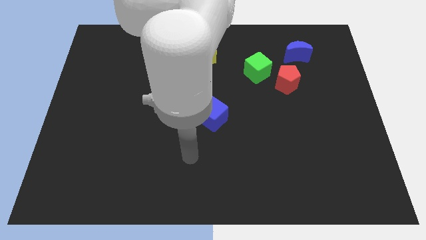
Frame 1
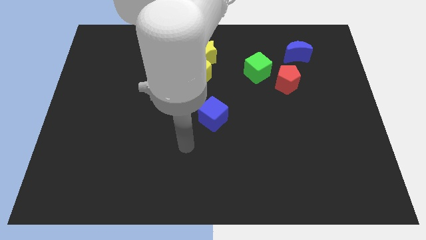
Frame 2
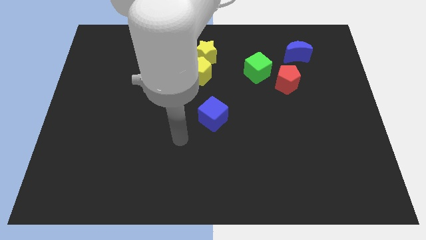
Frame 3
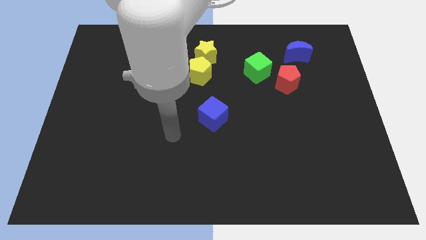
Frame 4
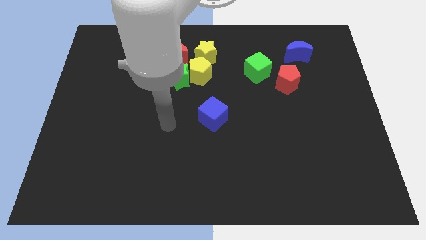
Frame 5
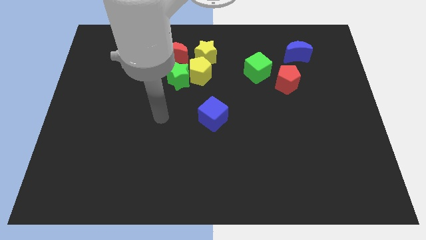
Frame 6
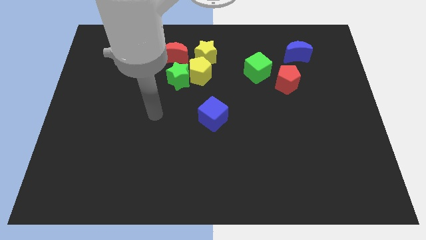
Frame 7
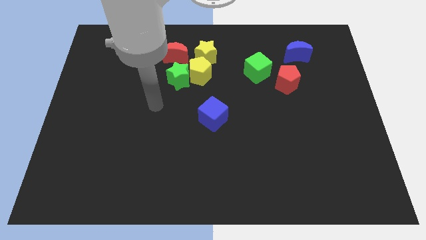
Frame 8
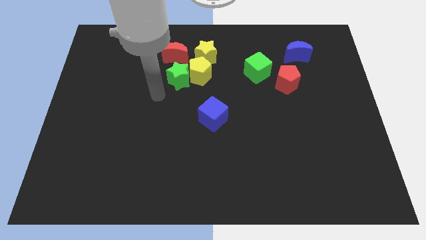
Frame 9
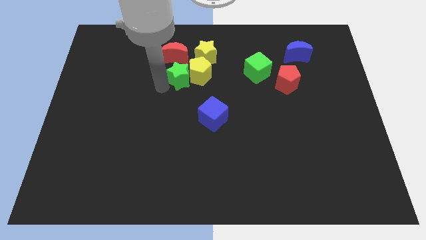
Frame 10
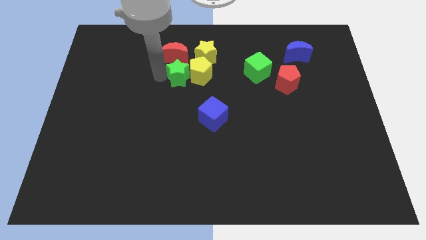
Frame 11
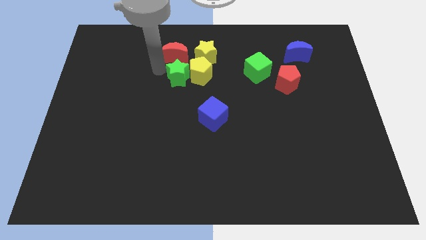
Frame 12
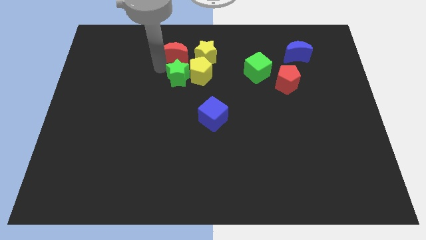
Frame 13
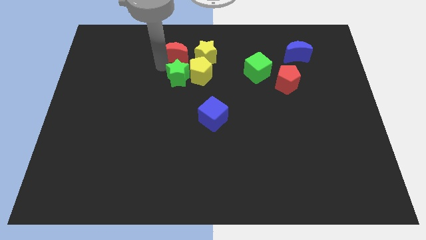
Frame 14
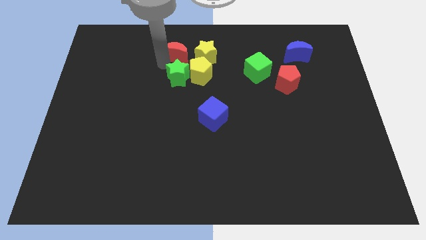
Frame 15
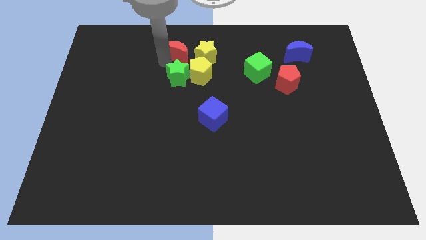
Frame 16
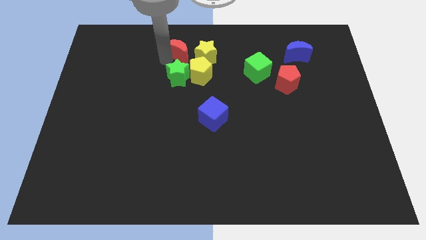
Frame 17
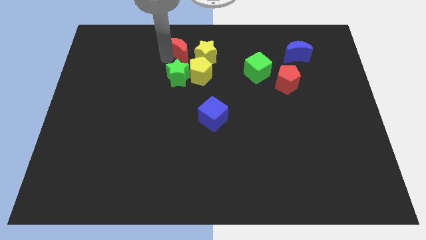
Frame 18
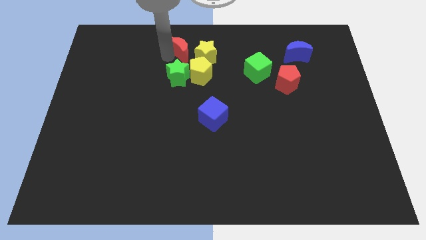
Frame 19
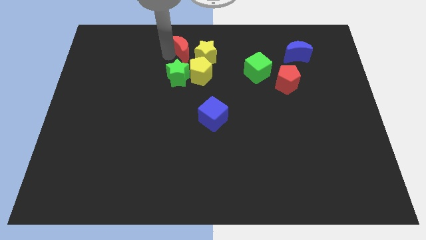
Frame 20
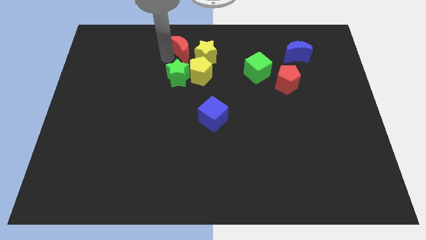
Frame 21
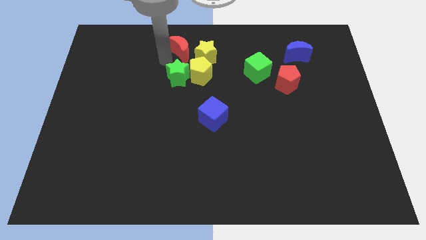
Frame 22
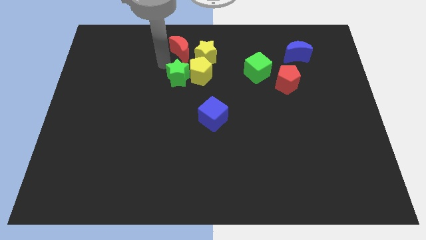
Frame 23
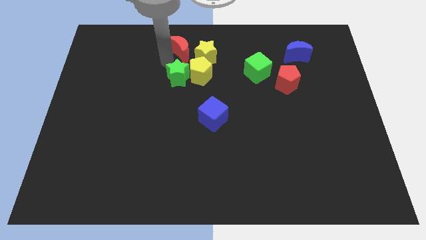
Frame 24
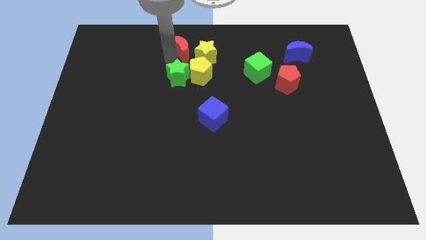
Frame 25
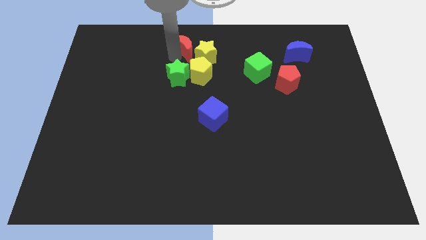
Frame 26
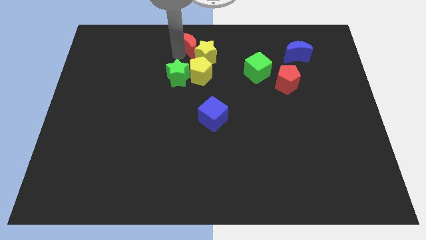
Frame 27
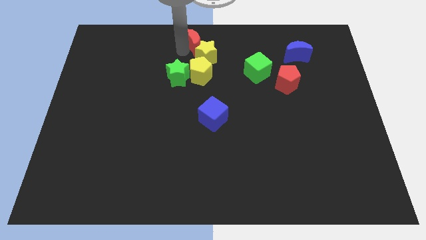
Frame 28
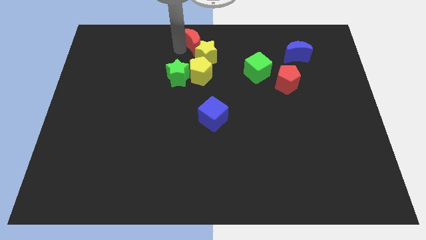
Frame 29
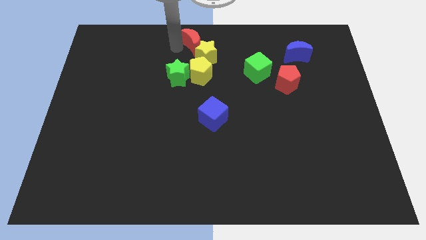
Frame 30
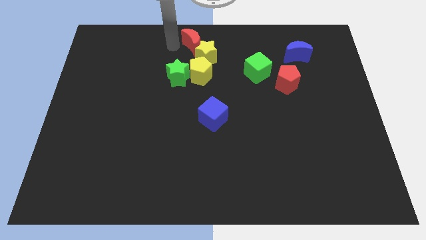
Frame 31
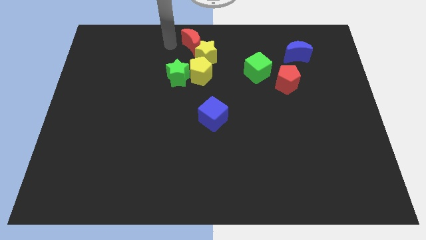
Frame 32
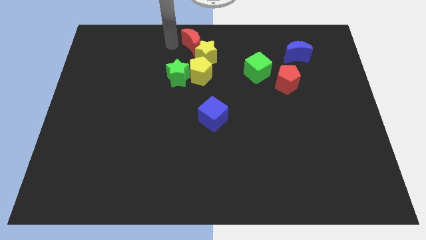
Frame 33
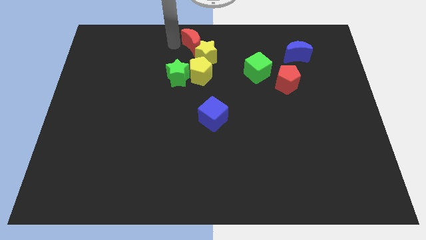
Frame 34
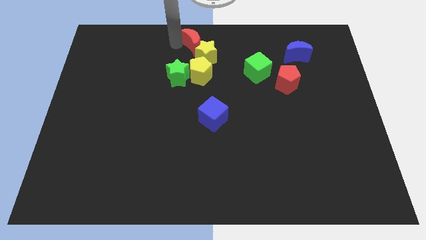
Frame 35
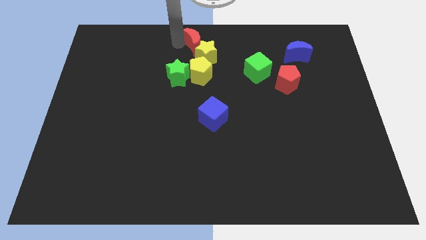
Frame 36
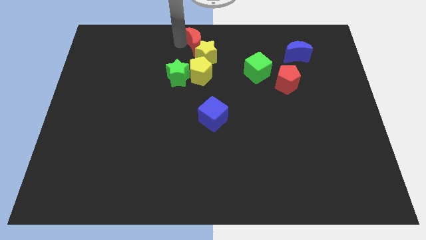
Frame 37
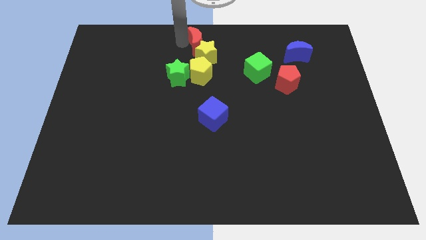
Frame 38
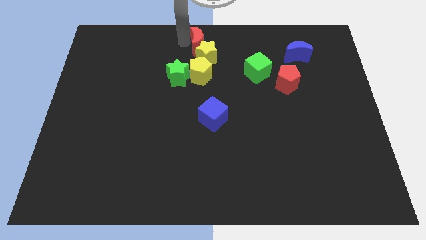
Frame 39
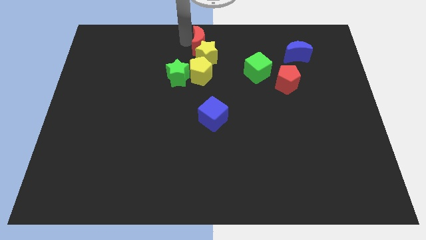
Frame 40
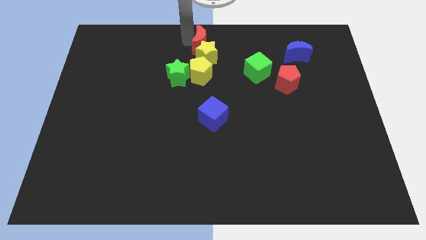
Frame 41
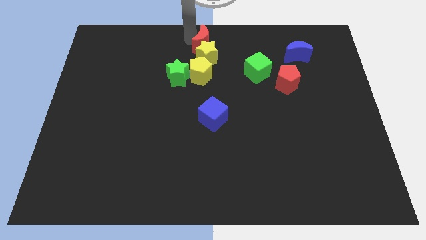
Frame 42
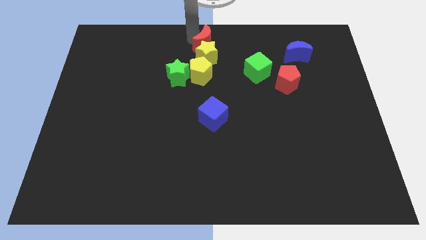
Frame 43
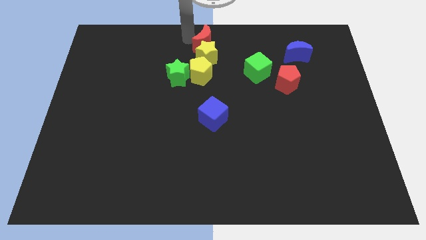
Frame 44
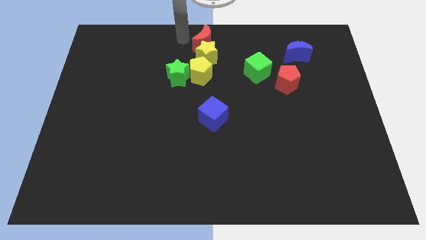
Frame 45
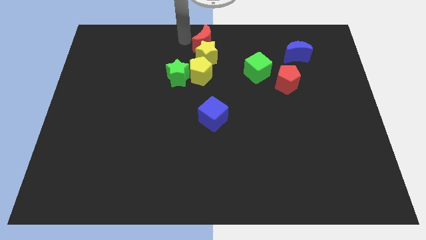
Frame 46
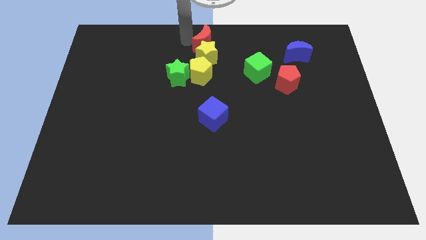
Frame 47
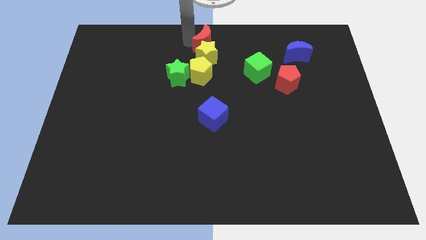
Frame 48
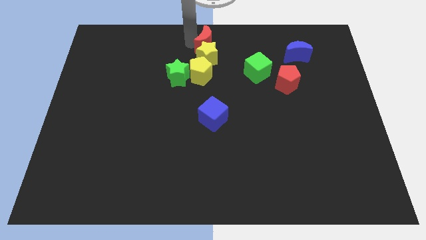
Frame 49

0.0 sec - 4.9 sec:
slightly push the red moon right

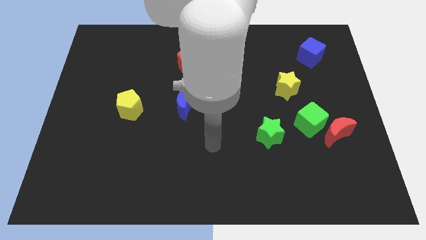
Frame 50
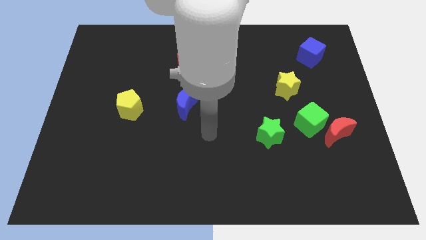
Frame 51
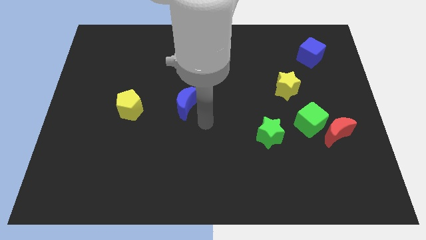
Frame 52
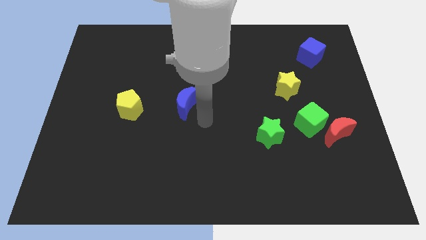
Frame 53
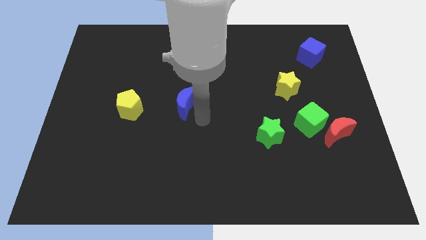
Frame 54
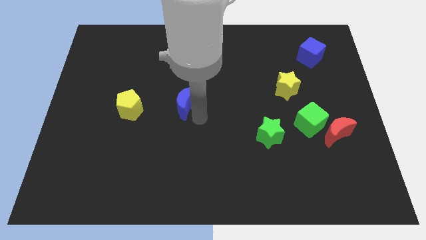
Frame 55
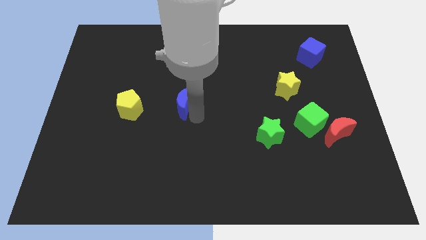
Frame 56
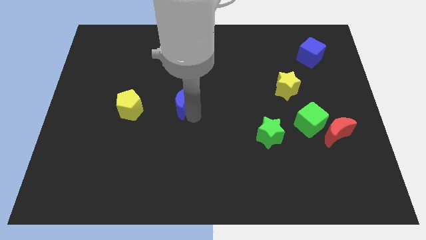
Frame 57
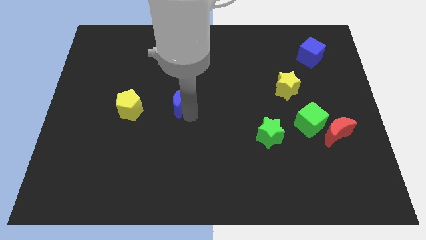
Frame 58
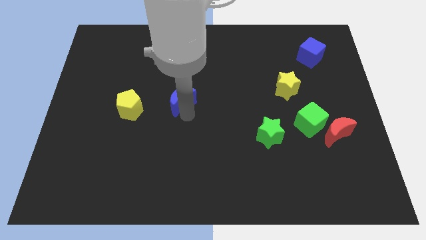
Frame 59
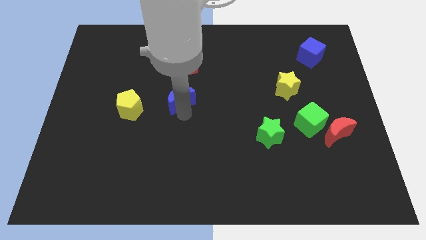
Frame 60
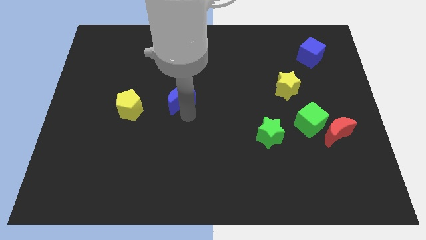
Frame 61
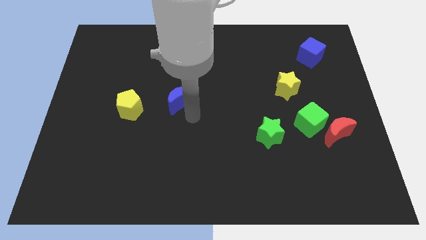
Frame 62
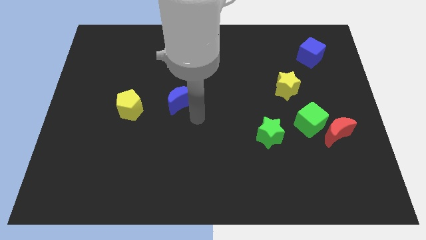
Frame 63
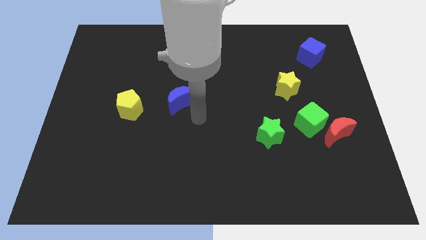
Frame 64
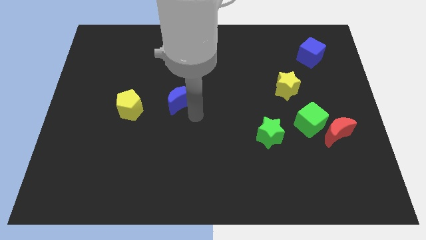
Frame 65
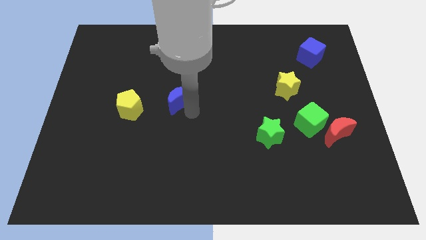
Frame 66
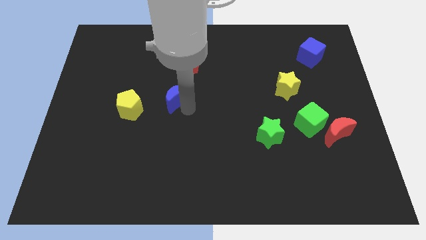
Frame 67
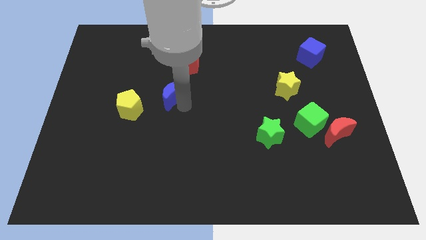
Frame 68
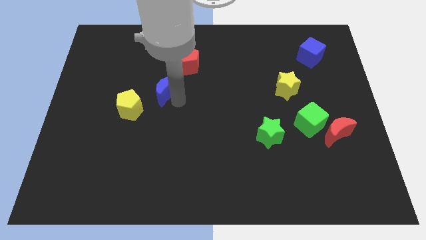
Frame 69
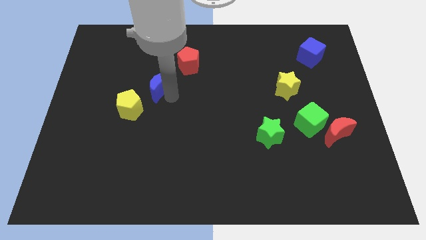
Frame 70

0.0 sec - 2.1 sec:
move the blue moon up and to the left slightly

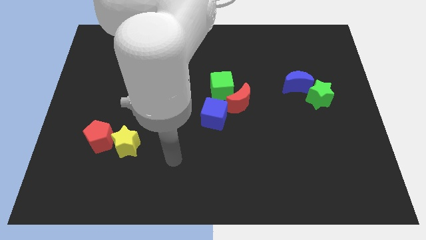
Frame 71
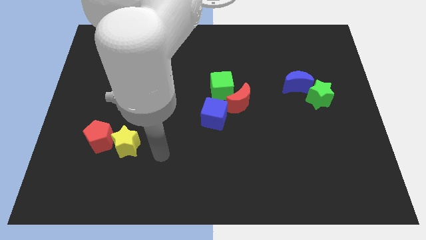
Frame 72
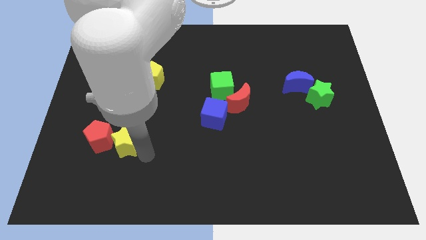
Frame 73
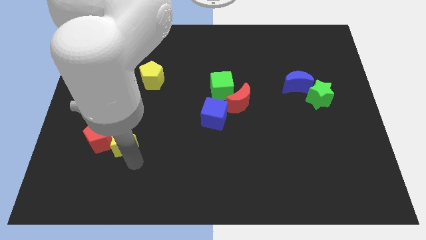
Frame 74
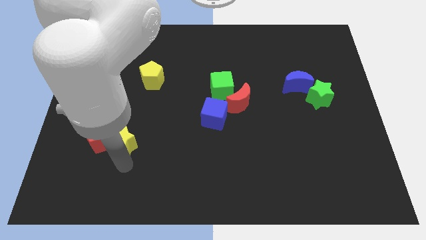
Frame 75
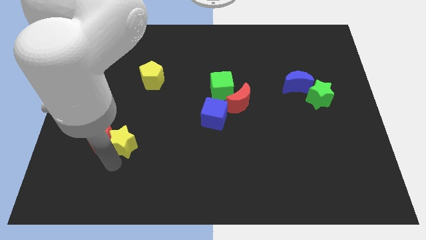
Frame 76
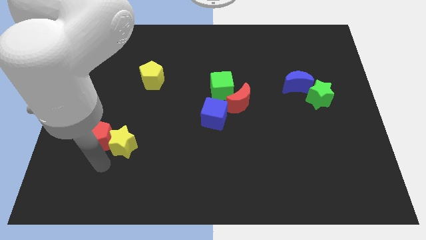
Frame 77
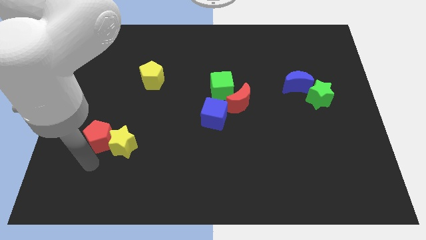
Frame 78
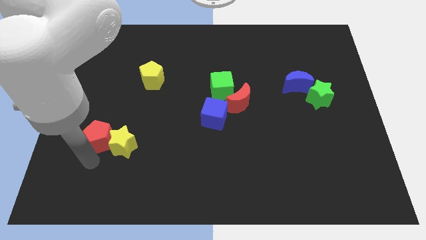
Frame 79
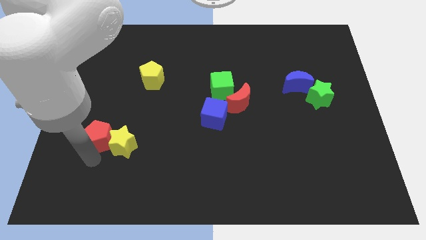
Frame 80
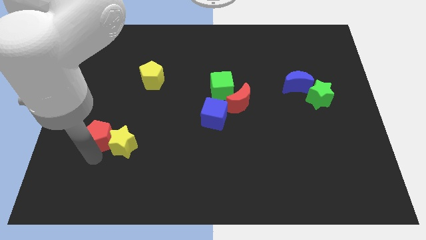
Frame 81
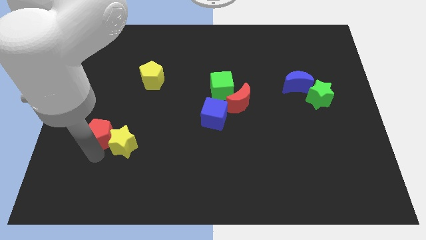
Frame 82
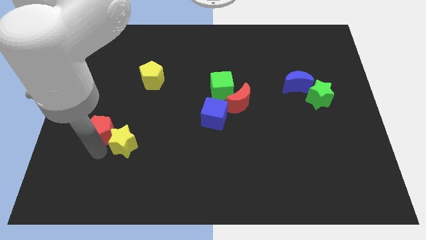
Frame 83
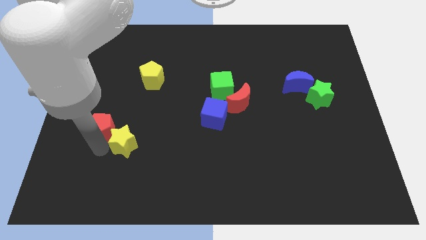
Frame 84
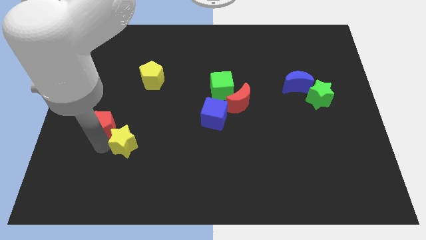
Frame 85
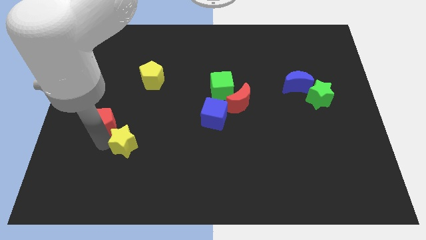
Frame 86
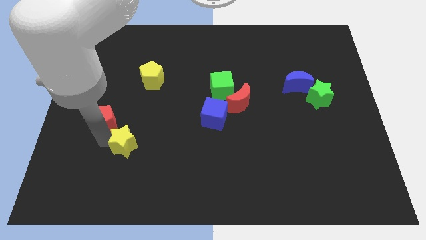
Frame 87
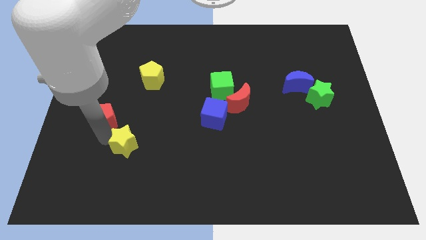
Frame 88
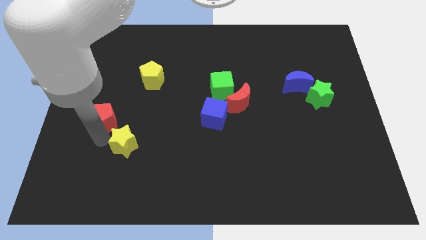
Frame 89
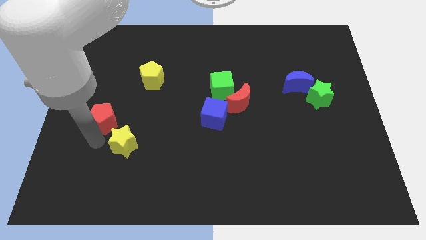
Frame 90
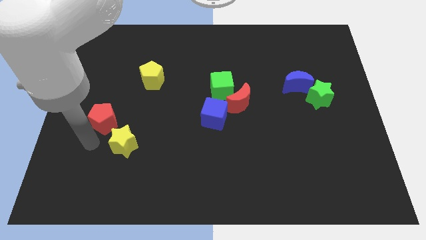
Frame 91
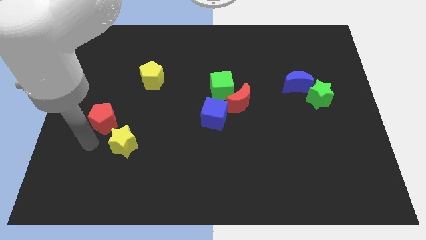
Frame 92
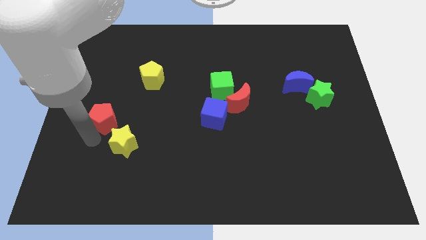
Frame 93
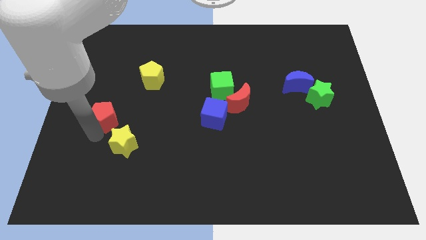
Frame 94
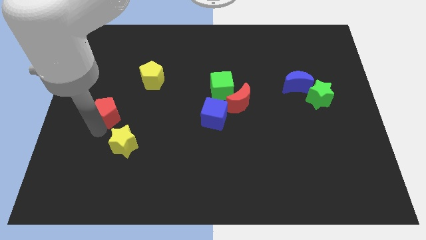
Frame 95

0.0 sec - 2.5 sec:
push the red pentagon up slightly
